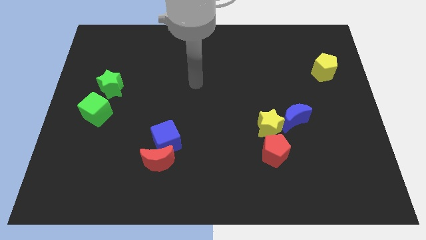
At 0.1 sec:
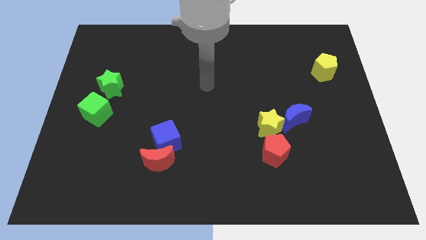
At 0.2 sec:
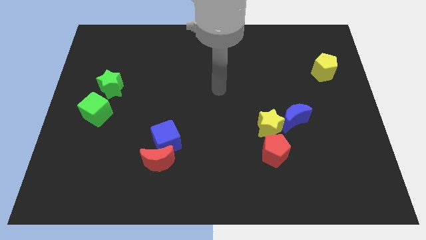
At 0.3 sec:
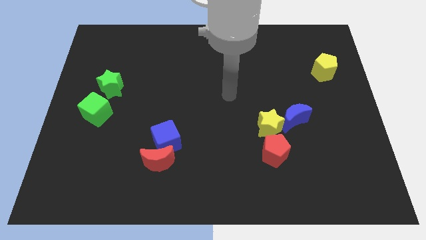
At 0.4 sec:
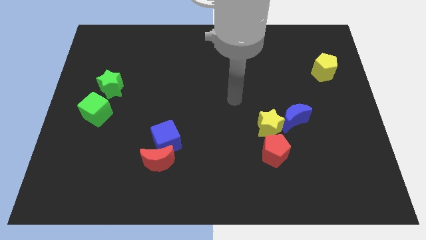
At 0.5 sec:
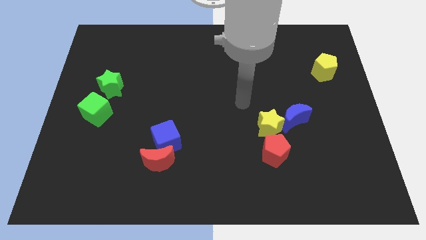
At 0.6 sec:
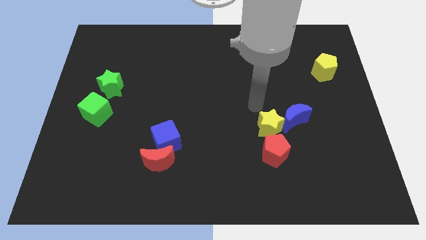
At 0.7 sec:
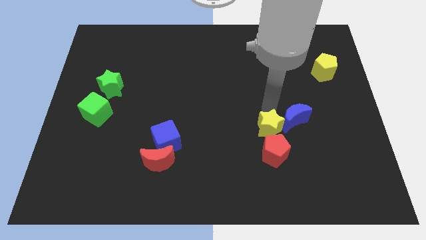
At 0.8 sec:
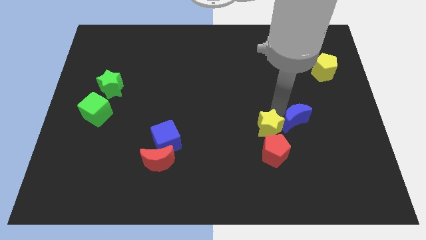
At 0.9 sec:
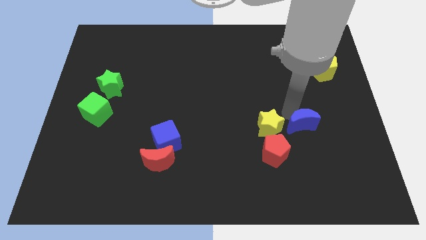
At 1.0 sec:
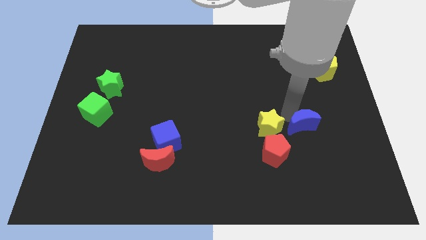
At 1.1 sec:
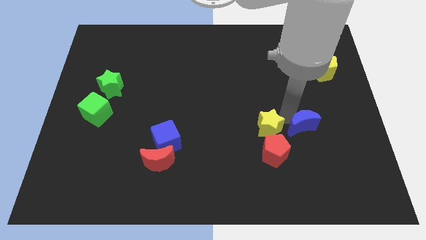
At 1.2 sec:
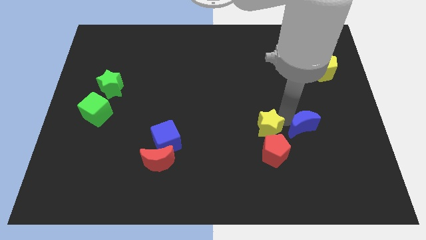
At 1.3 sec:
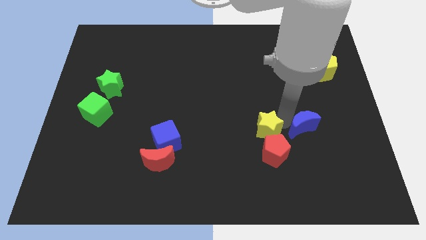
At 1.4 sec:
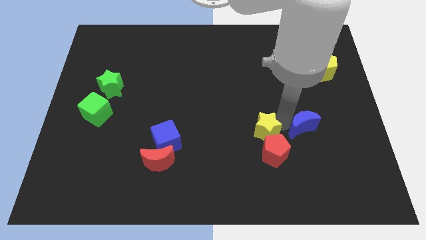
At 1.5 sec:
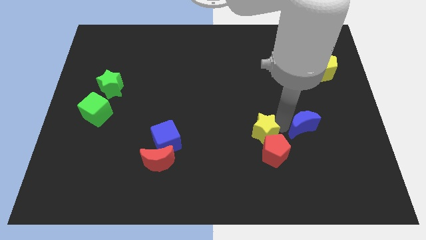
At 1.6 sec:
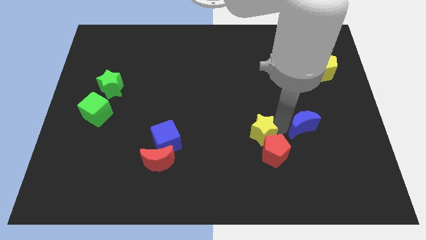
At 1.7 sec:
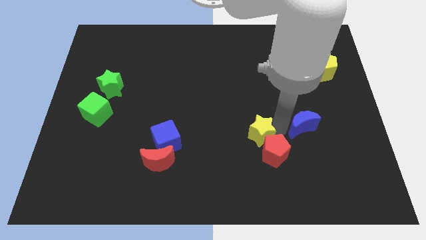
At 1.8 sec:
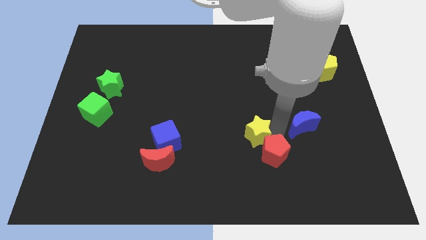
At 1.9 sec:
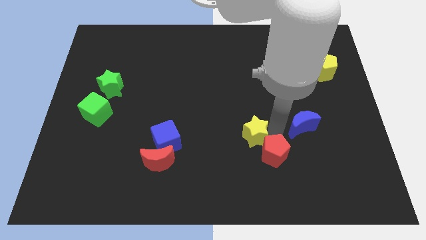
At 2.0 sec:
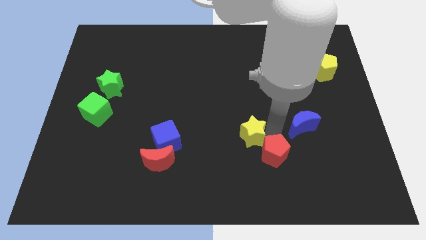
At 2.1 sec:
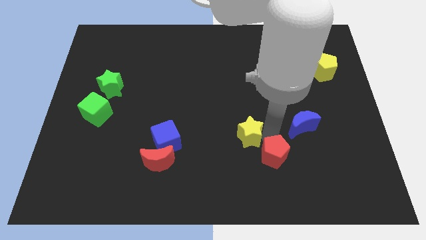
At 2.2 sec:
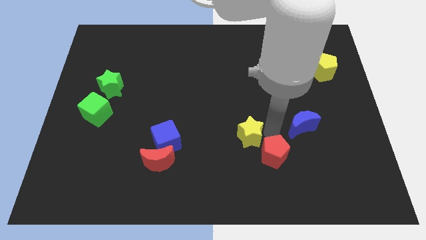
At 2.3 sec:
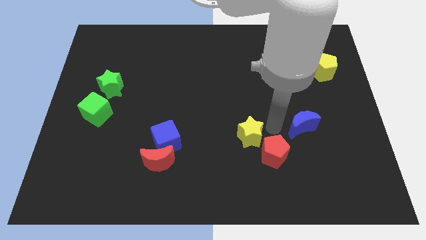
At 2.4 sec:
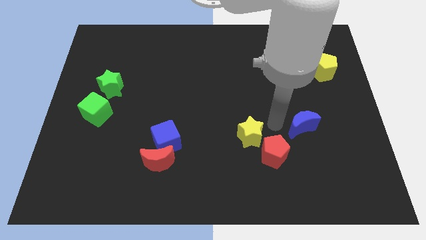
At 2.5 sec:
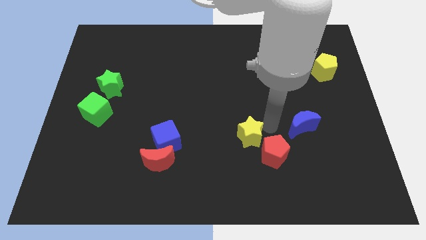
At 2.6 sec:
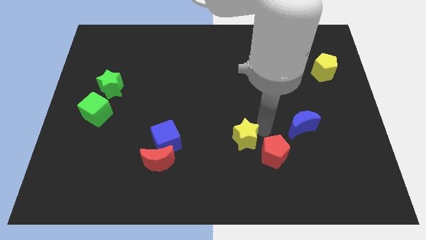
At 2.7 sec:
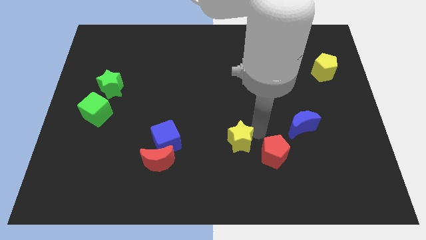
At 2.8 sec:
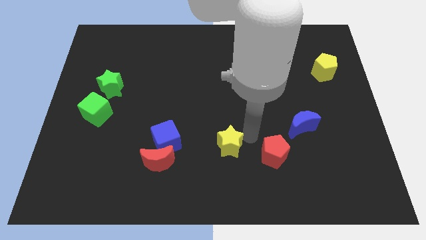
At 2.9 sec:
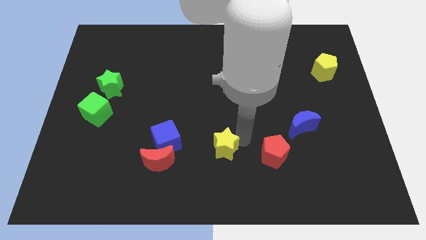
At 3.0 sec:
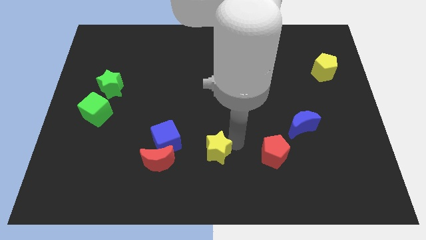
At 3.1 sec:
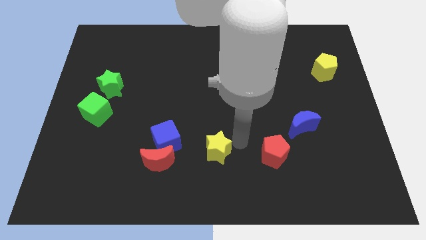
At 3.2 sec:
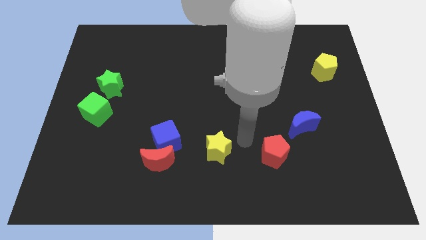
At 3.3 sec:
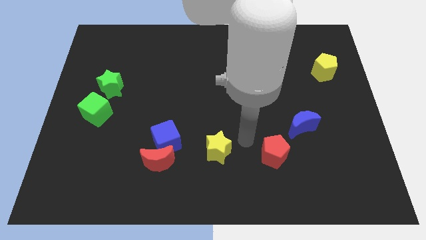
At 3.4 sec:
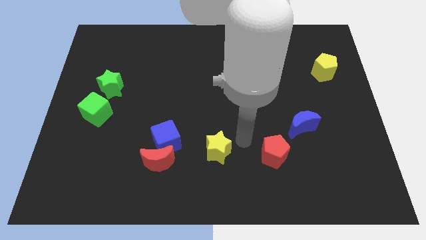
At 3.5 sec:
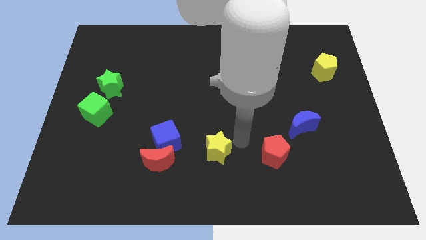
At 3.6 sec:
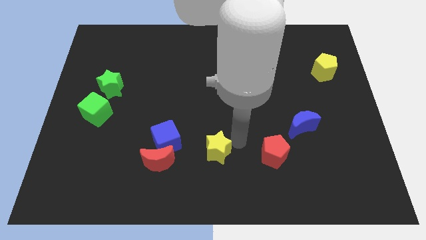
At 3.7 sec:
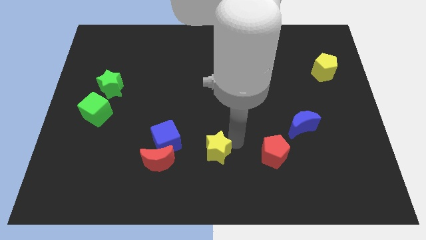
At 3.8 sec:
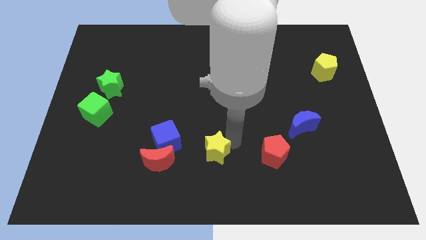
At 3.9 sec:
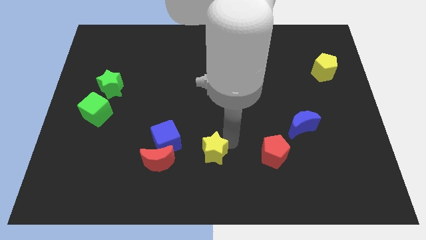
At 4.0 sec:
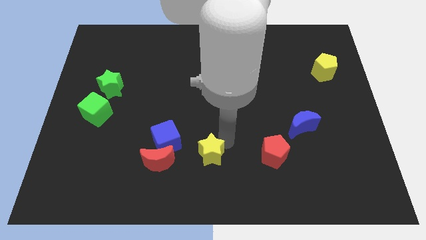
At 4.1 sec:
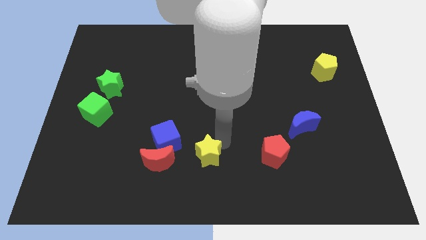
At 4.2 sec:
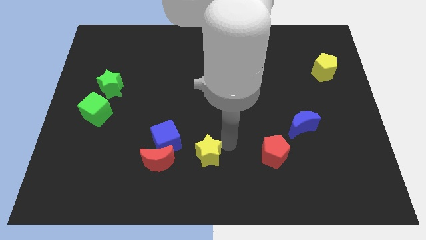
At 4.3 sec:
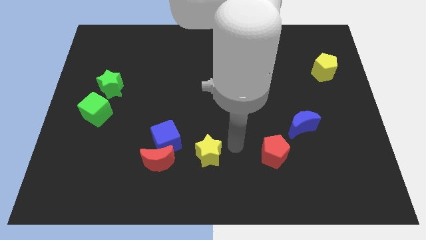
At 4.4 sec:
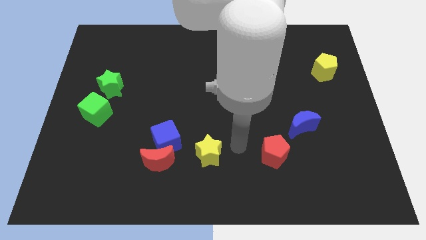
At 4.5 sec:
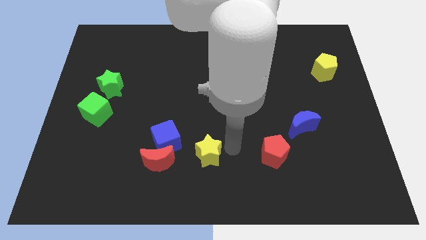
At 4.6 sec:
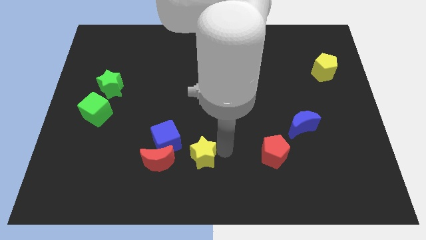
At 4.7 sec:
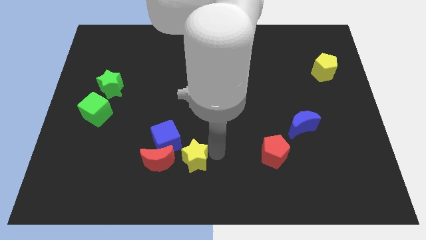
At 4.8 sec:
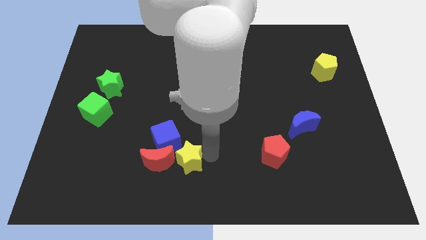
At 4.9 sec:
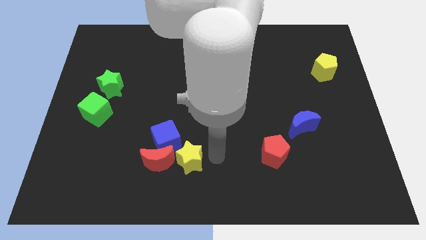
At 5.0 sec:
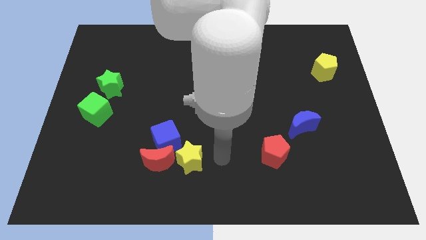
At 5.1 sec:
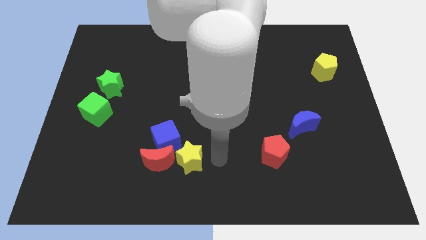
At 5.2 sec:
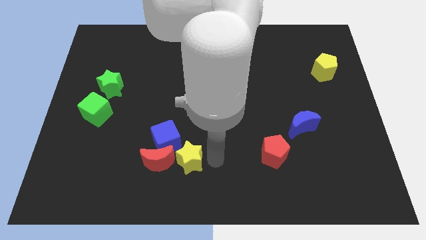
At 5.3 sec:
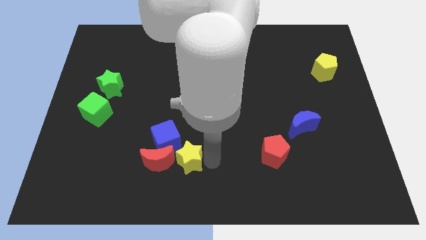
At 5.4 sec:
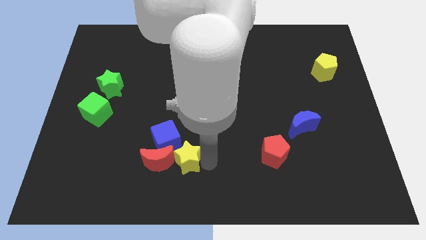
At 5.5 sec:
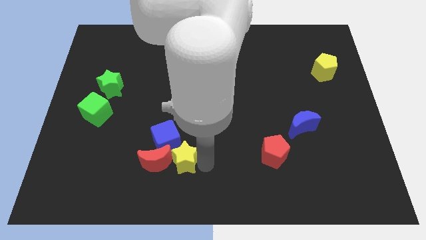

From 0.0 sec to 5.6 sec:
push the yellow star towards the red moon

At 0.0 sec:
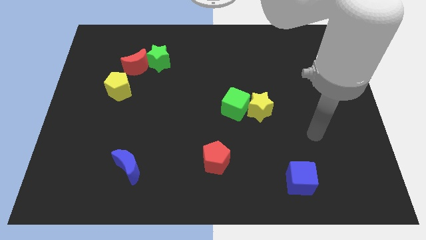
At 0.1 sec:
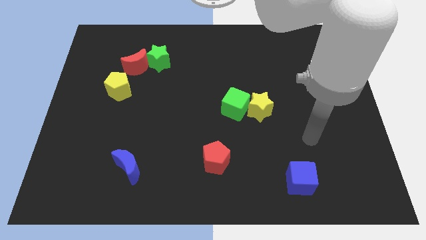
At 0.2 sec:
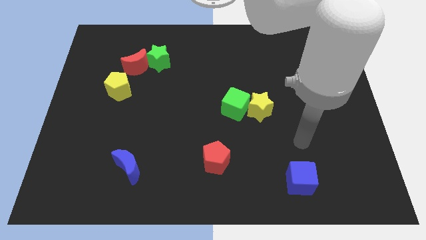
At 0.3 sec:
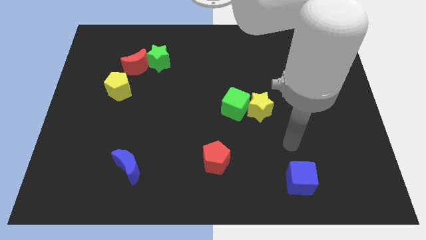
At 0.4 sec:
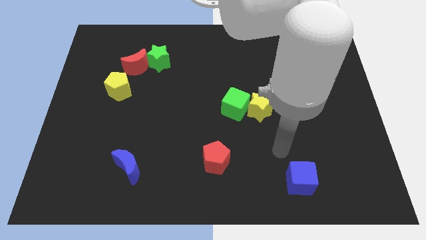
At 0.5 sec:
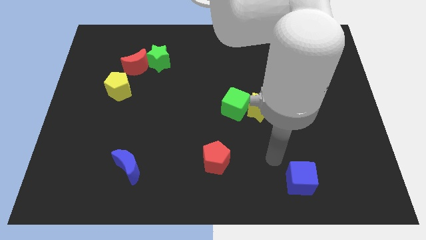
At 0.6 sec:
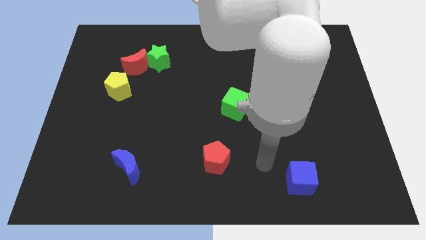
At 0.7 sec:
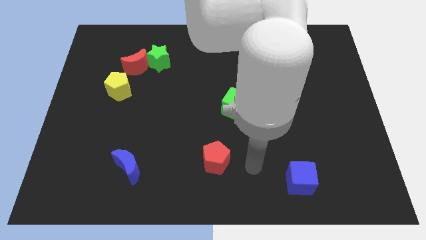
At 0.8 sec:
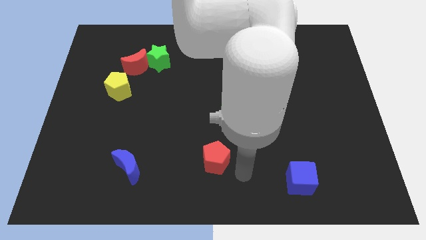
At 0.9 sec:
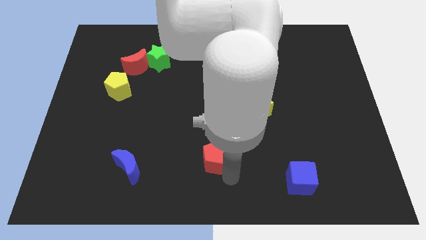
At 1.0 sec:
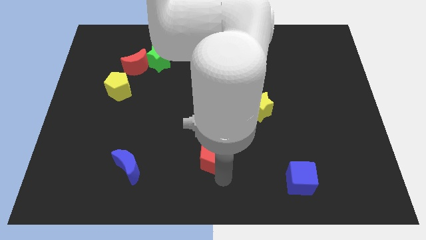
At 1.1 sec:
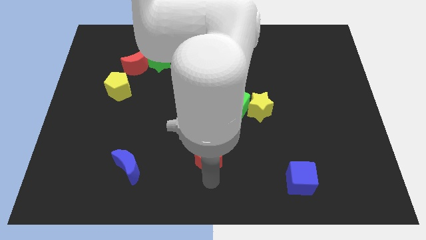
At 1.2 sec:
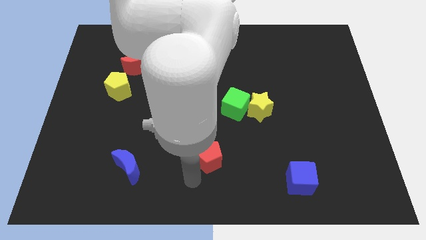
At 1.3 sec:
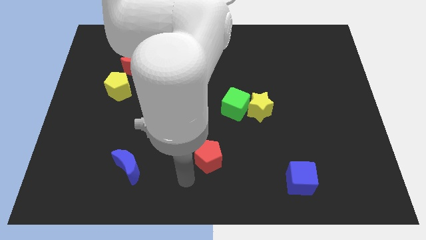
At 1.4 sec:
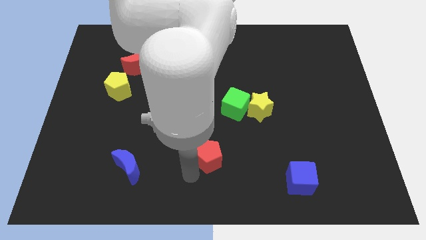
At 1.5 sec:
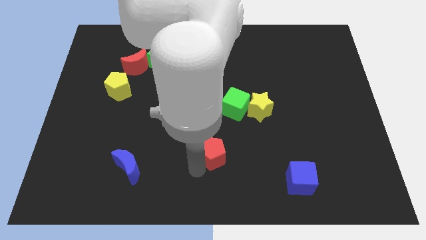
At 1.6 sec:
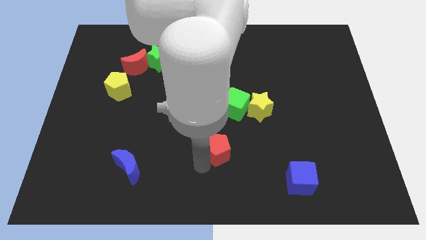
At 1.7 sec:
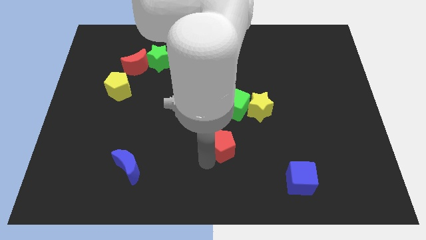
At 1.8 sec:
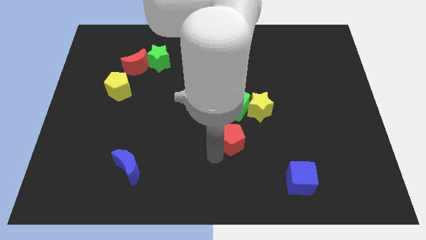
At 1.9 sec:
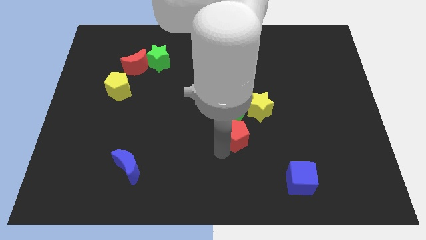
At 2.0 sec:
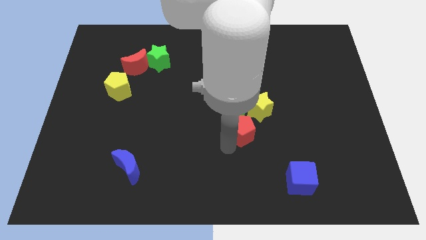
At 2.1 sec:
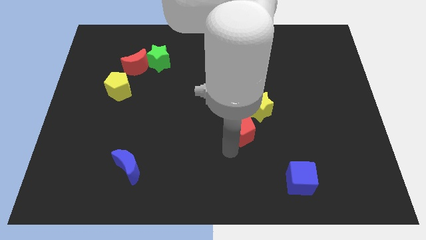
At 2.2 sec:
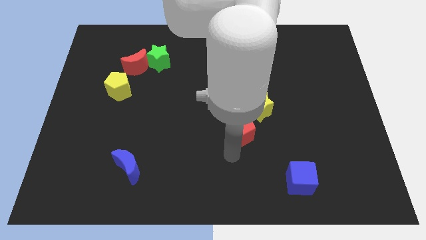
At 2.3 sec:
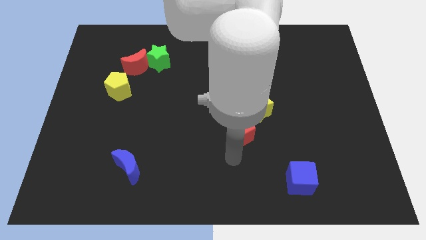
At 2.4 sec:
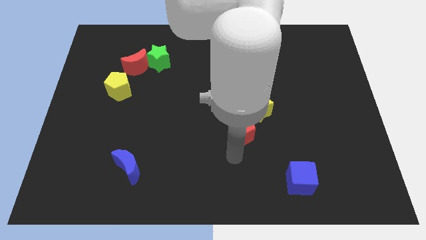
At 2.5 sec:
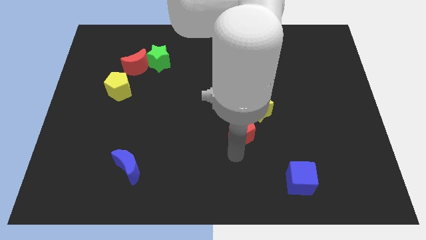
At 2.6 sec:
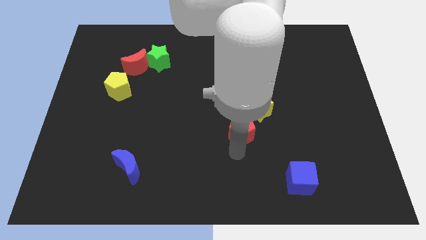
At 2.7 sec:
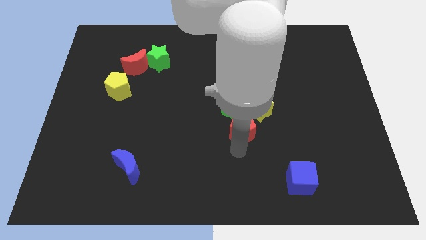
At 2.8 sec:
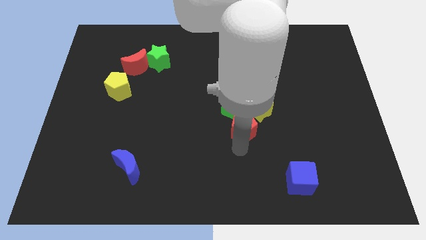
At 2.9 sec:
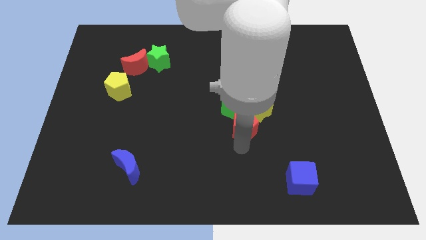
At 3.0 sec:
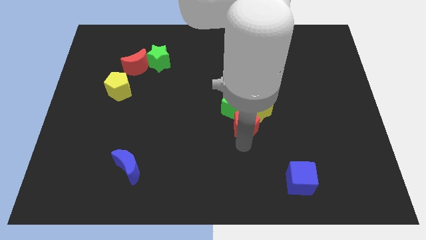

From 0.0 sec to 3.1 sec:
put the red pentagon towards the yellow star
